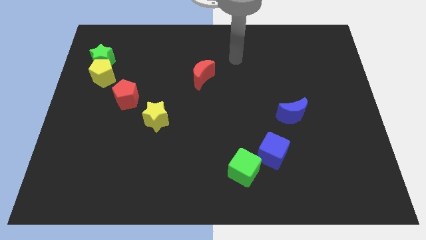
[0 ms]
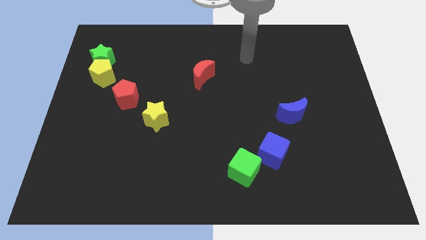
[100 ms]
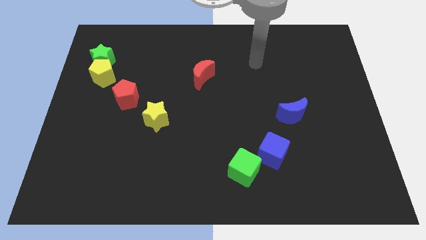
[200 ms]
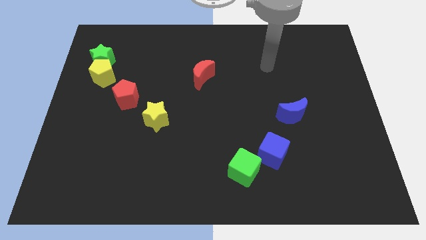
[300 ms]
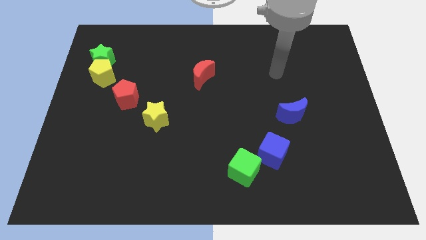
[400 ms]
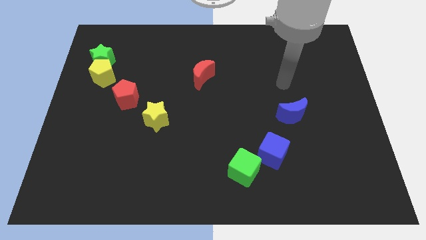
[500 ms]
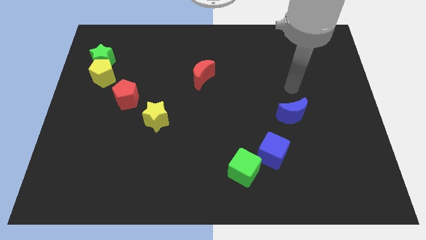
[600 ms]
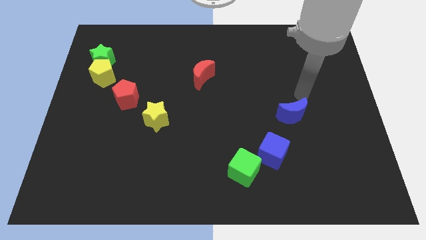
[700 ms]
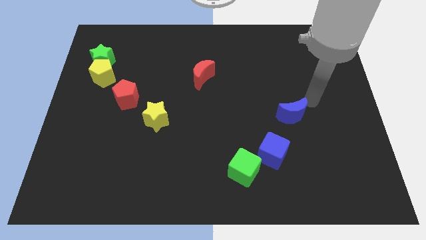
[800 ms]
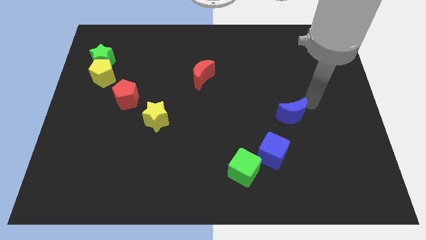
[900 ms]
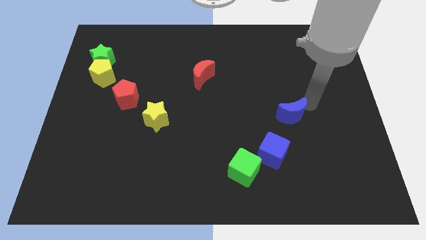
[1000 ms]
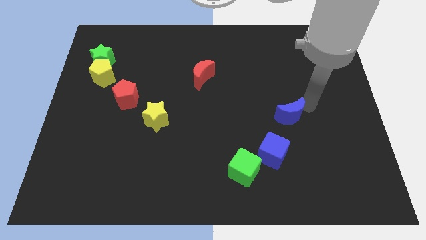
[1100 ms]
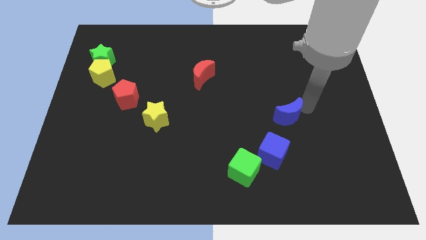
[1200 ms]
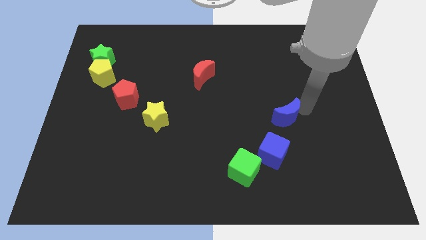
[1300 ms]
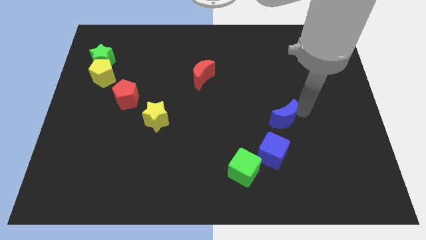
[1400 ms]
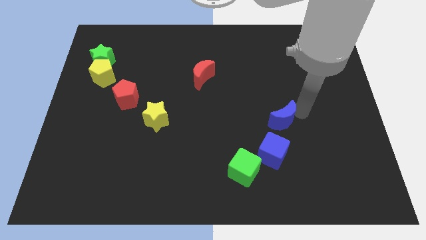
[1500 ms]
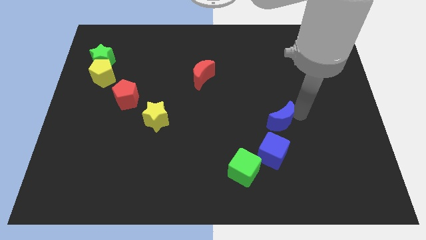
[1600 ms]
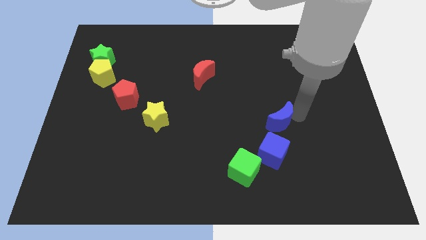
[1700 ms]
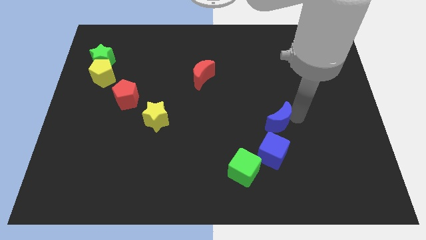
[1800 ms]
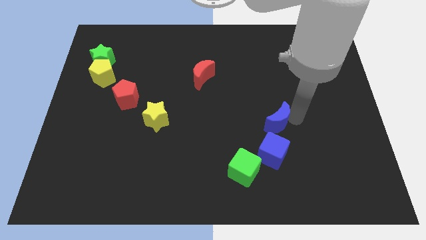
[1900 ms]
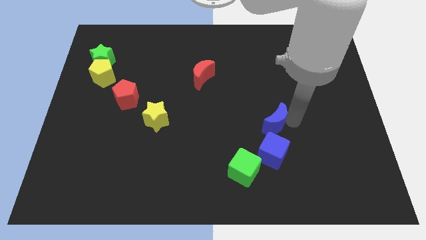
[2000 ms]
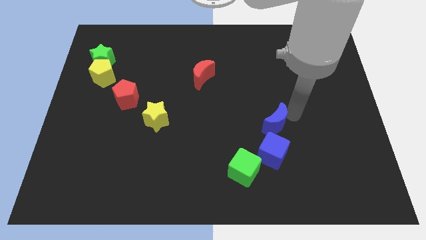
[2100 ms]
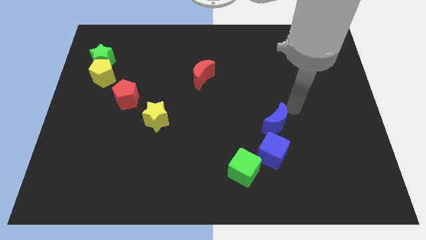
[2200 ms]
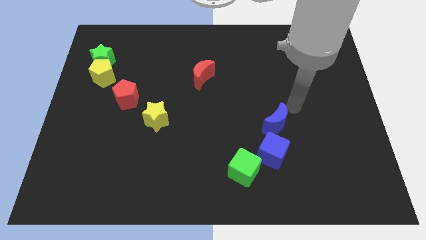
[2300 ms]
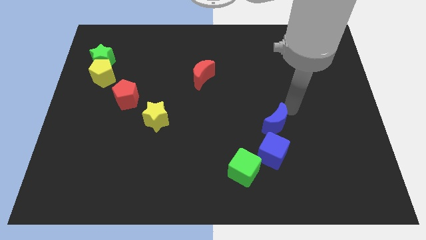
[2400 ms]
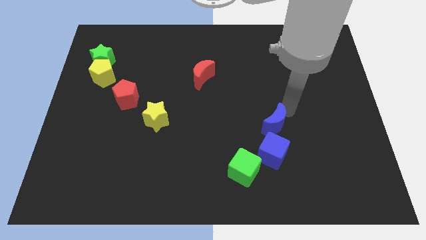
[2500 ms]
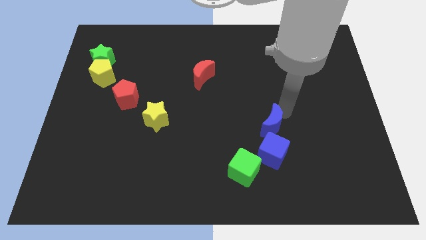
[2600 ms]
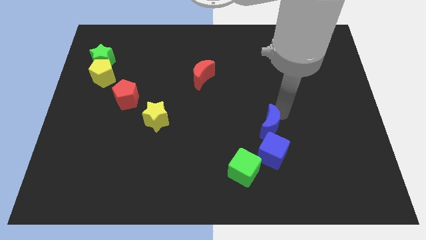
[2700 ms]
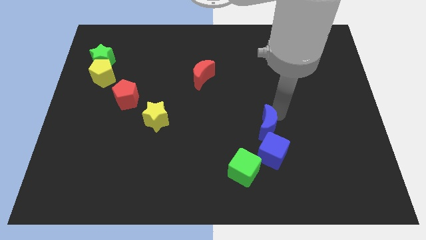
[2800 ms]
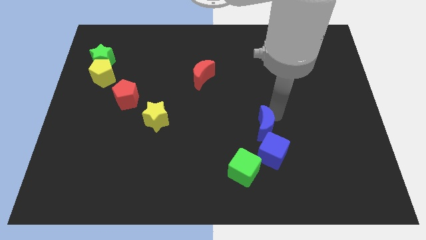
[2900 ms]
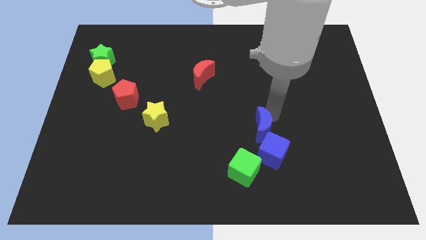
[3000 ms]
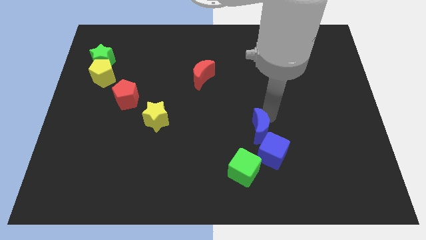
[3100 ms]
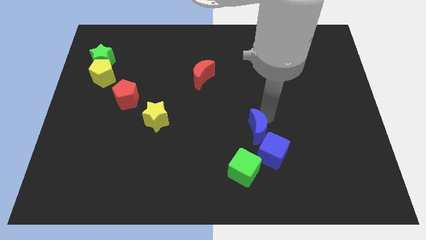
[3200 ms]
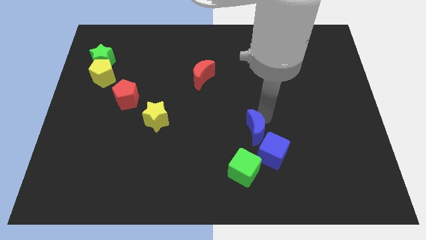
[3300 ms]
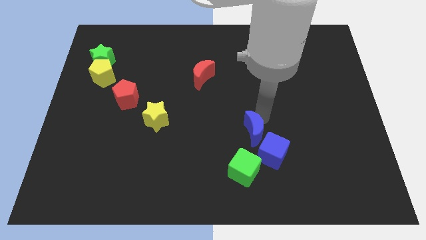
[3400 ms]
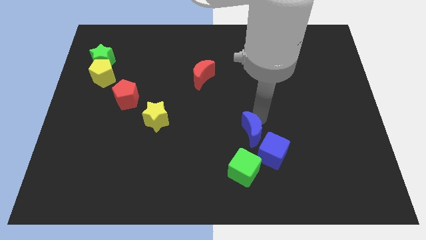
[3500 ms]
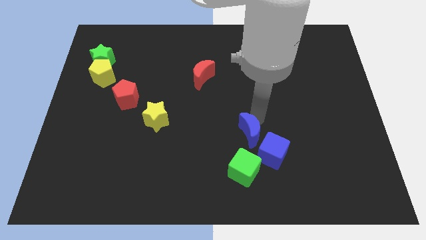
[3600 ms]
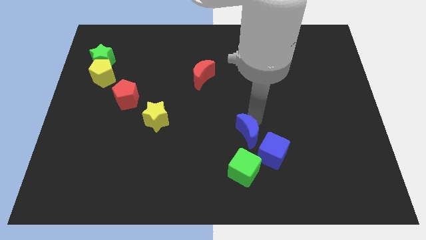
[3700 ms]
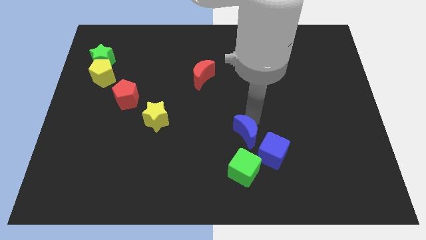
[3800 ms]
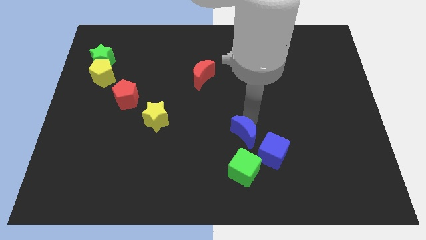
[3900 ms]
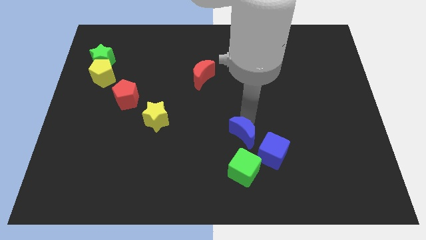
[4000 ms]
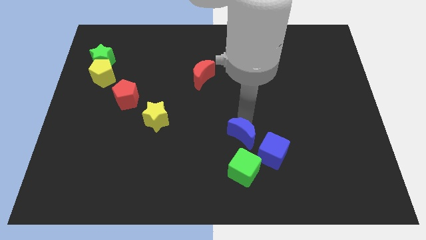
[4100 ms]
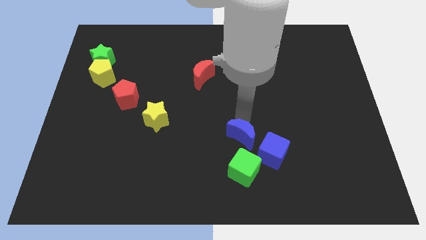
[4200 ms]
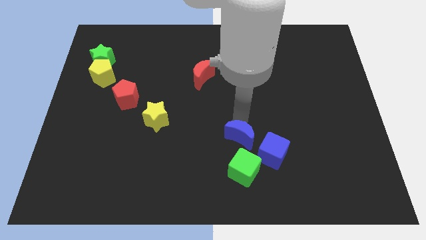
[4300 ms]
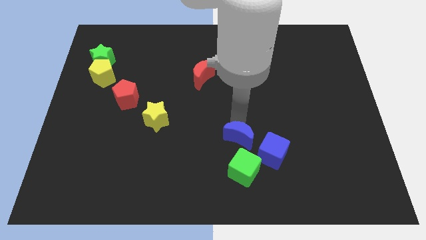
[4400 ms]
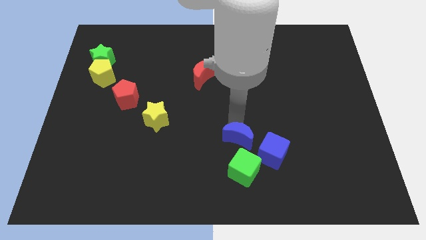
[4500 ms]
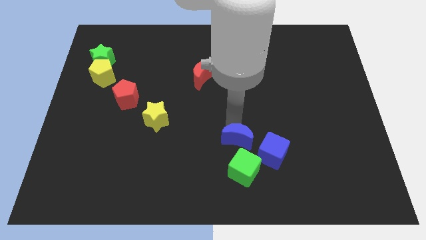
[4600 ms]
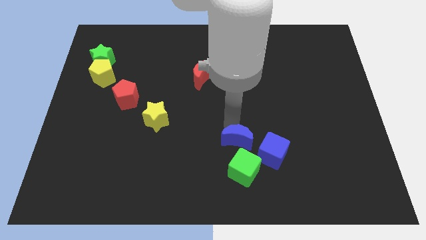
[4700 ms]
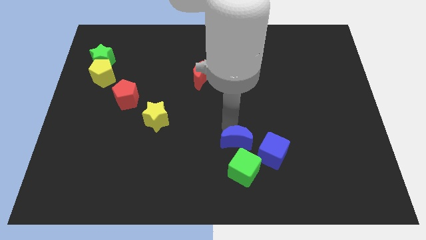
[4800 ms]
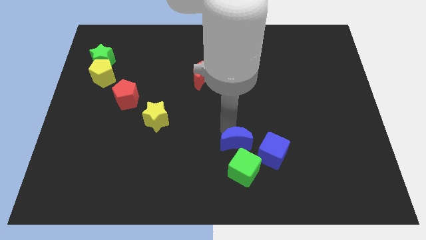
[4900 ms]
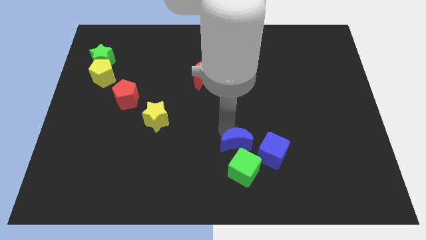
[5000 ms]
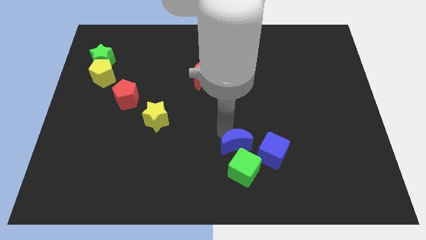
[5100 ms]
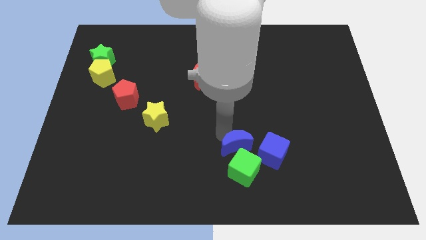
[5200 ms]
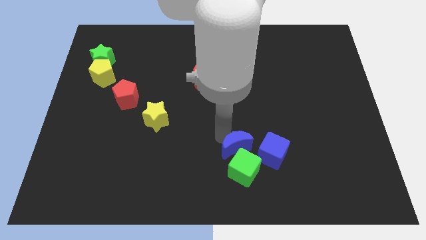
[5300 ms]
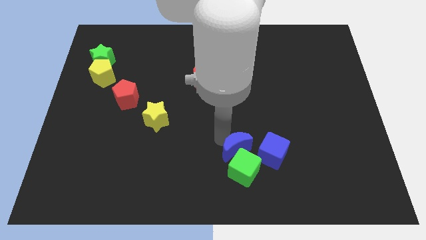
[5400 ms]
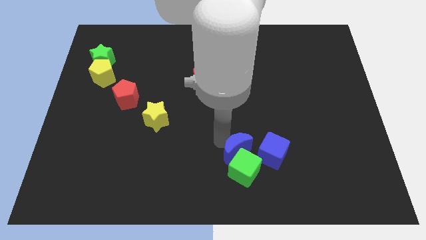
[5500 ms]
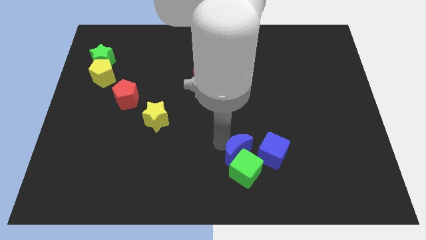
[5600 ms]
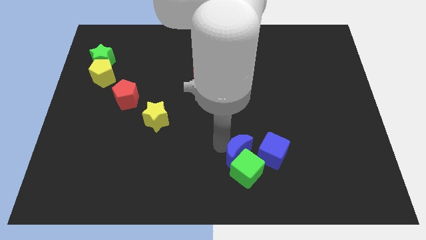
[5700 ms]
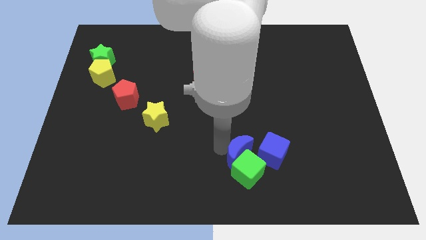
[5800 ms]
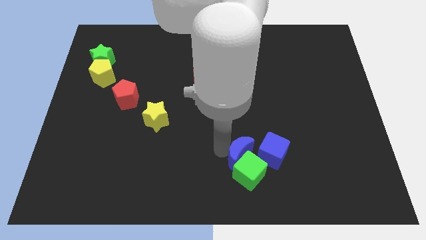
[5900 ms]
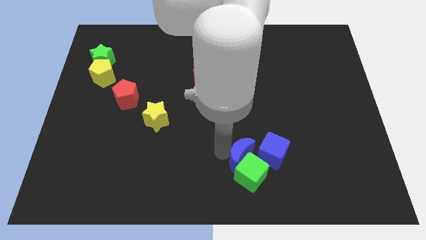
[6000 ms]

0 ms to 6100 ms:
move the blue moon to the bottom

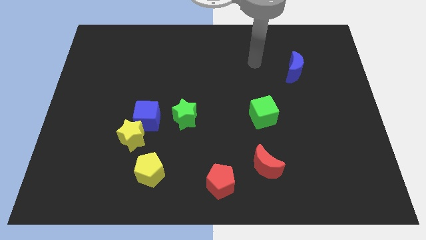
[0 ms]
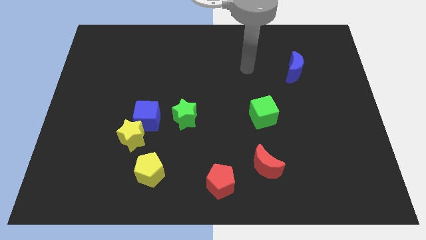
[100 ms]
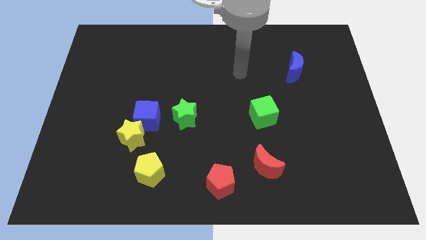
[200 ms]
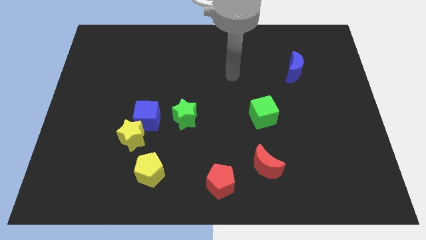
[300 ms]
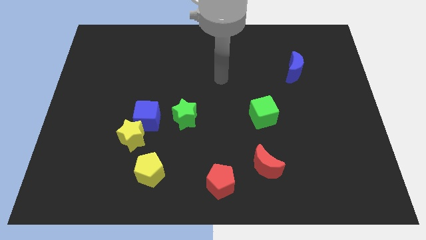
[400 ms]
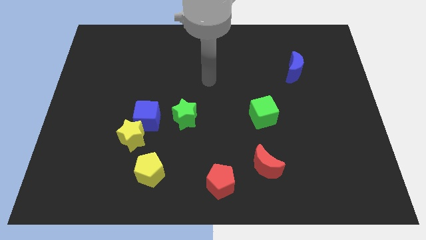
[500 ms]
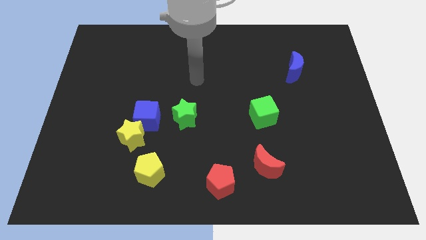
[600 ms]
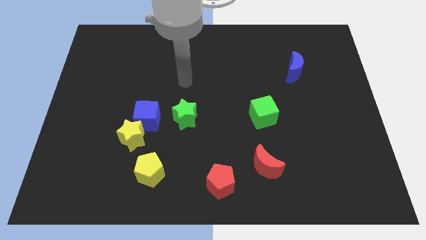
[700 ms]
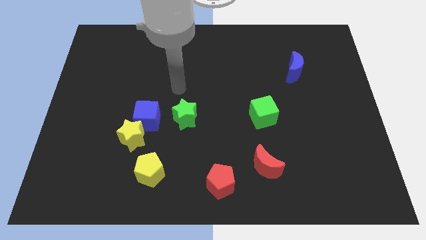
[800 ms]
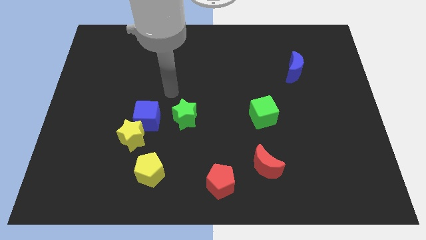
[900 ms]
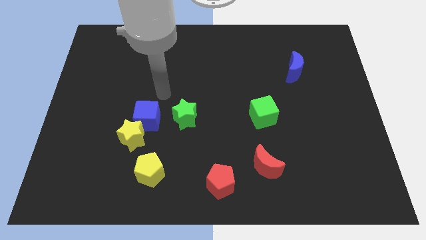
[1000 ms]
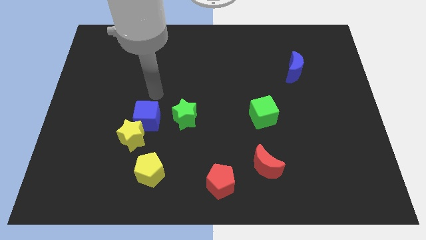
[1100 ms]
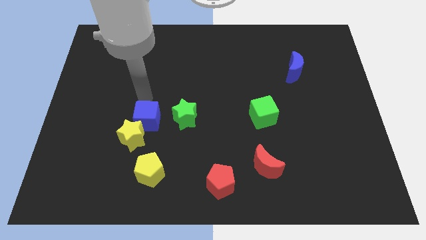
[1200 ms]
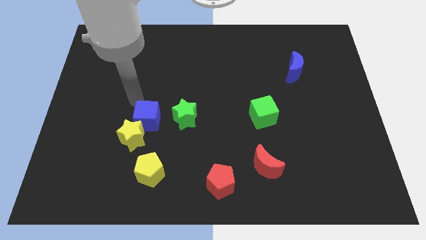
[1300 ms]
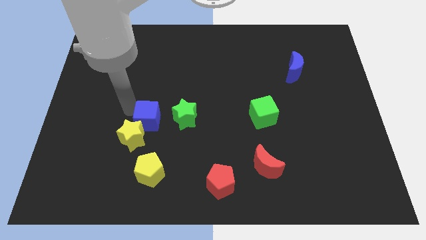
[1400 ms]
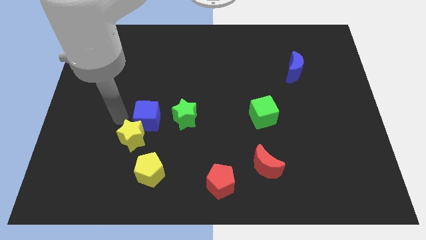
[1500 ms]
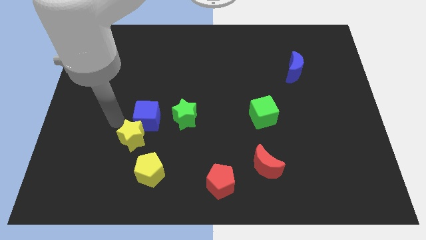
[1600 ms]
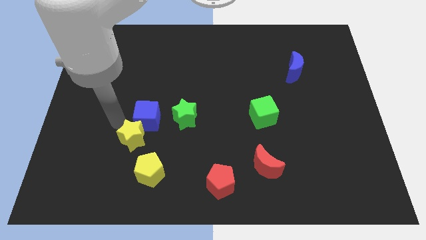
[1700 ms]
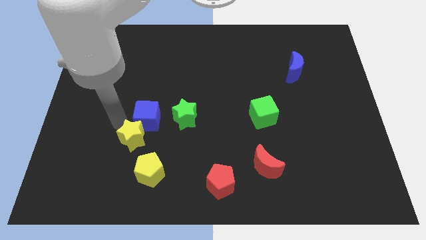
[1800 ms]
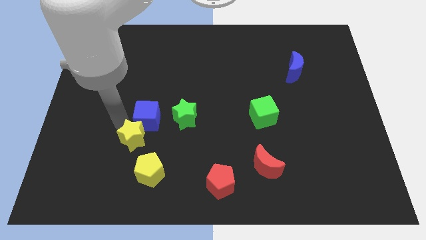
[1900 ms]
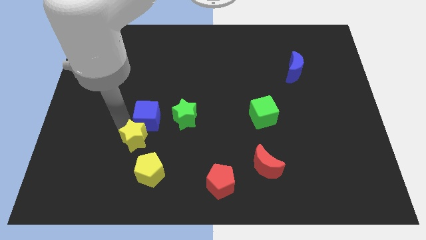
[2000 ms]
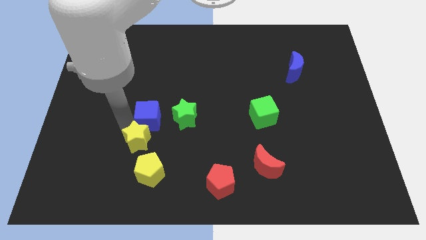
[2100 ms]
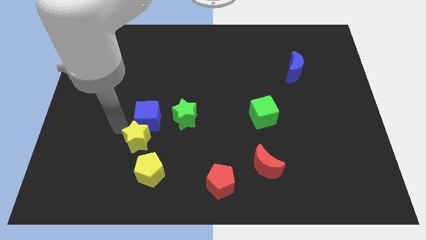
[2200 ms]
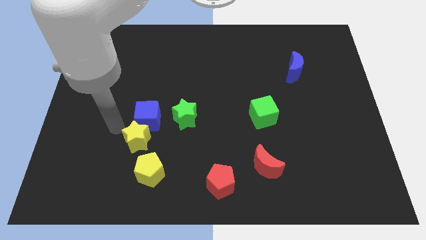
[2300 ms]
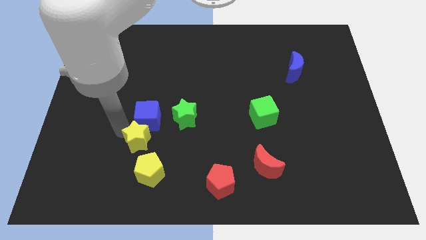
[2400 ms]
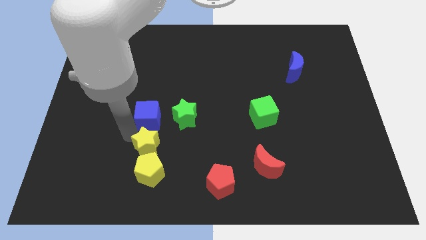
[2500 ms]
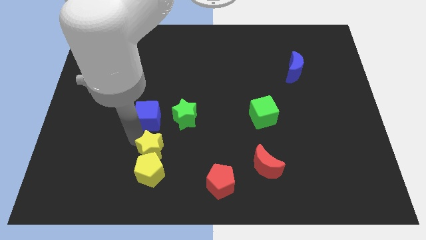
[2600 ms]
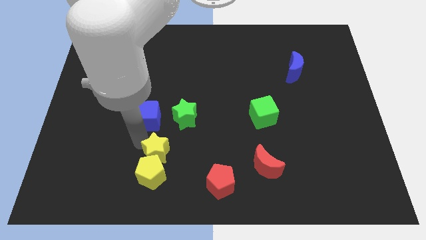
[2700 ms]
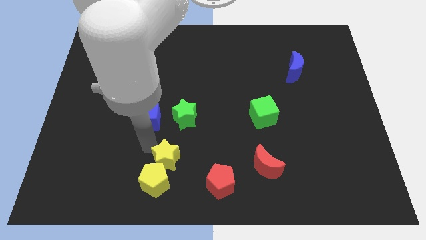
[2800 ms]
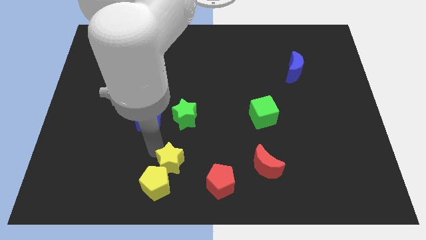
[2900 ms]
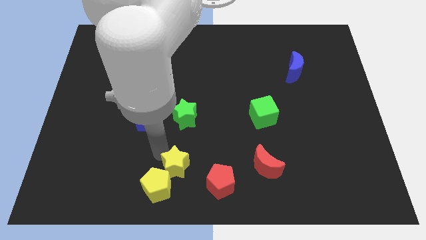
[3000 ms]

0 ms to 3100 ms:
move the yellow star to the bottom side
